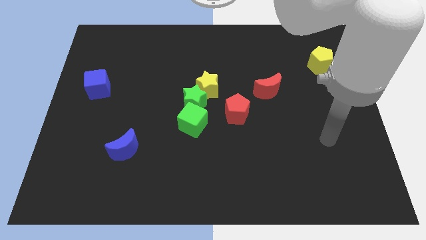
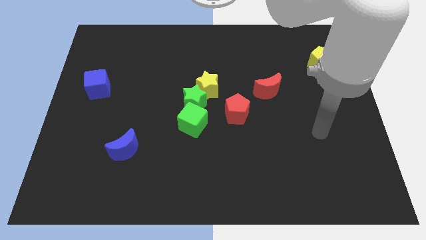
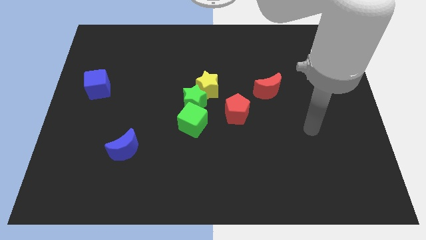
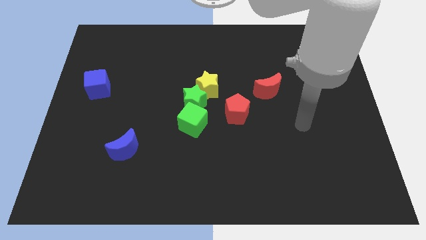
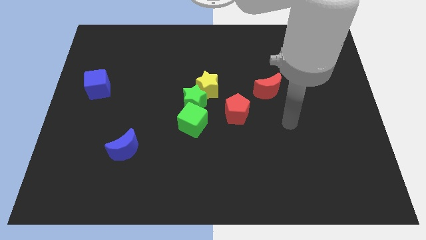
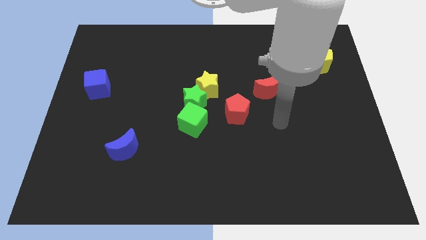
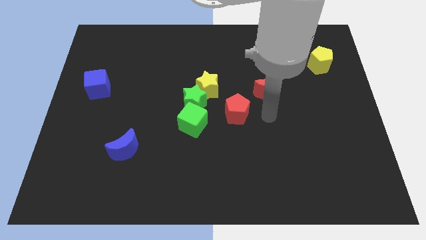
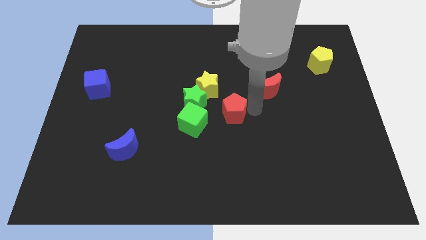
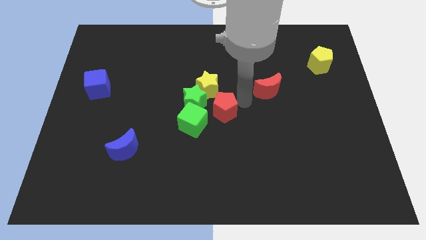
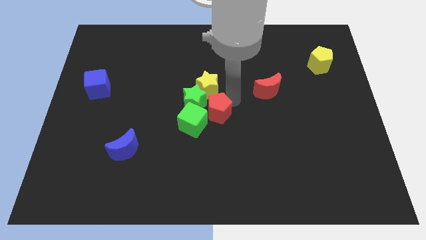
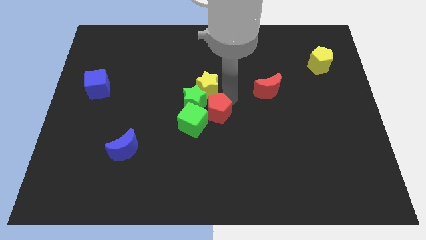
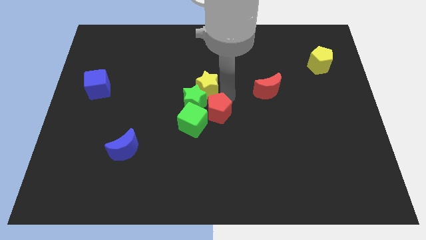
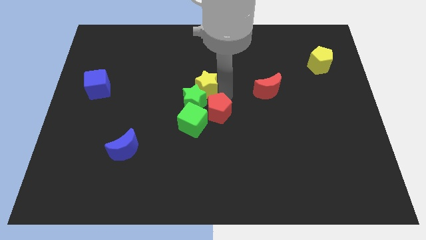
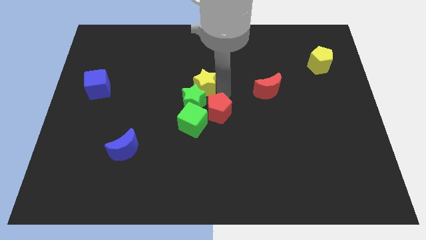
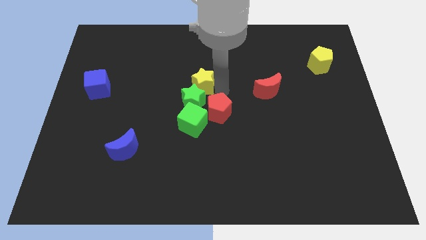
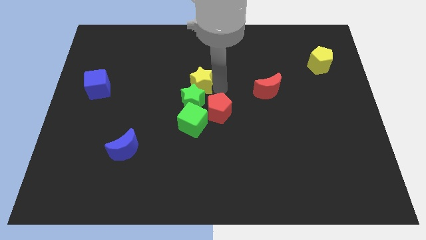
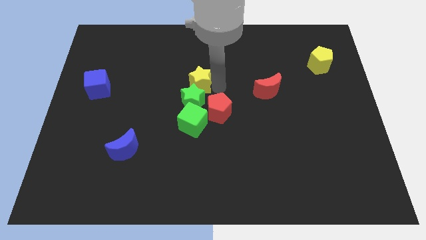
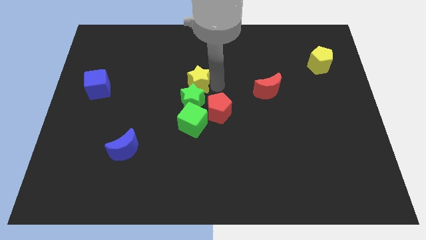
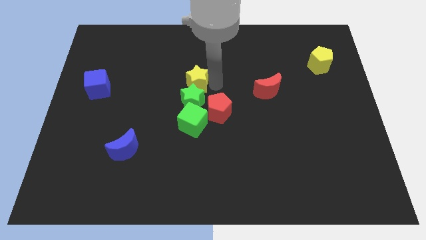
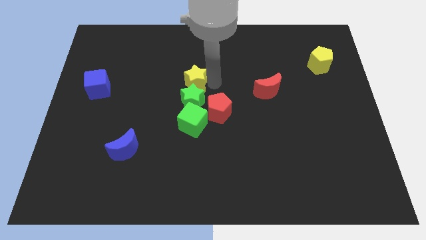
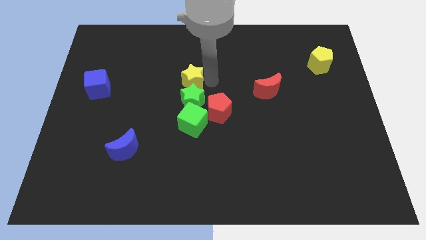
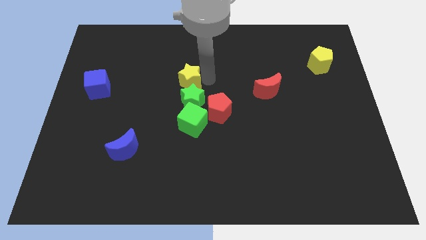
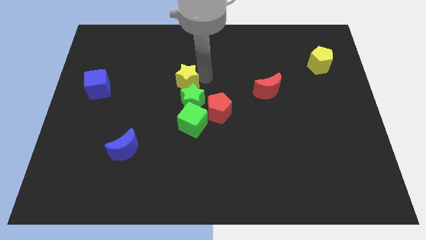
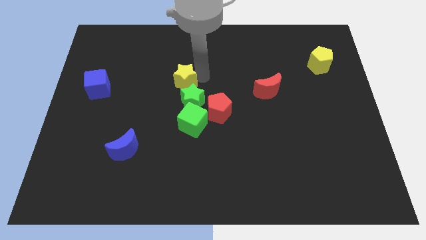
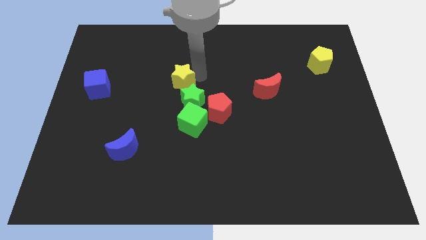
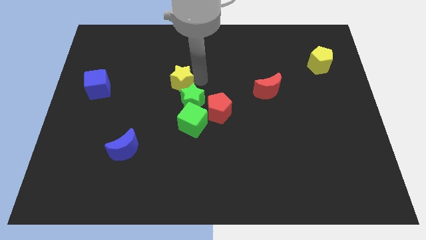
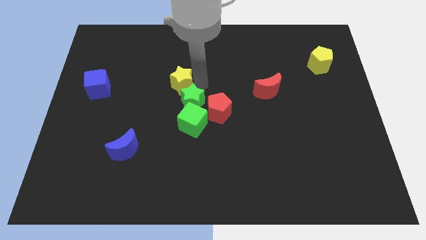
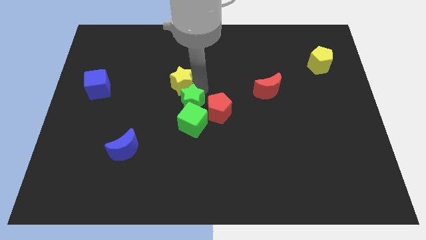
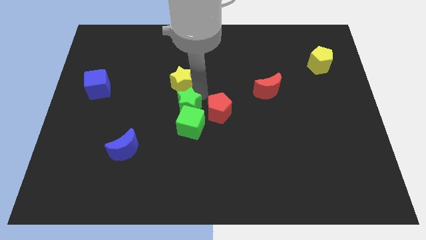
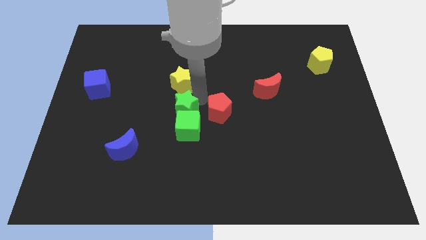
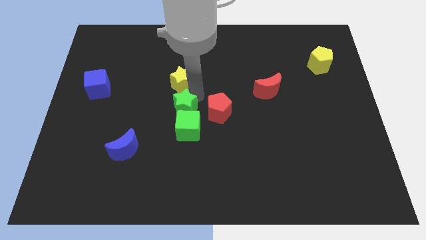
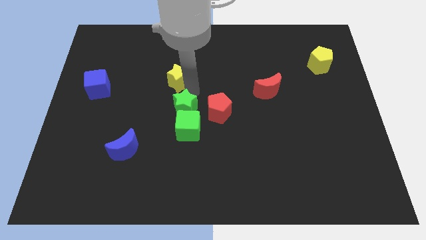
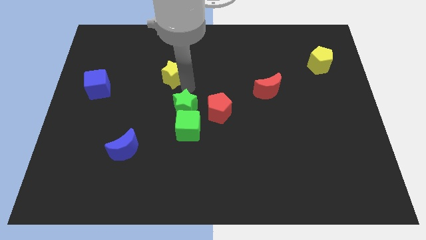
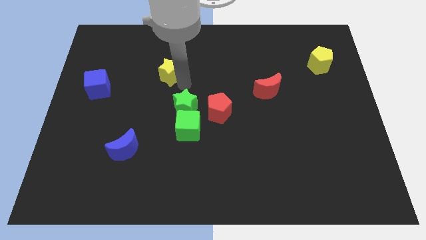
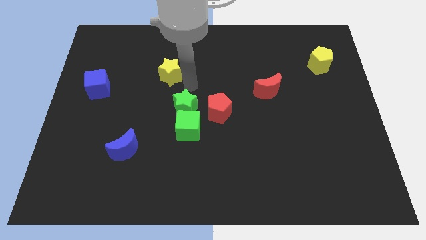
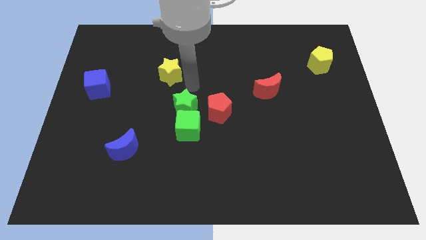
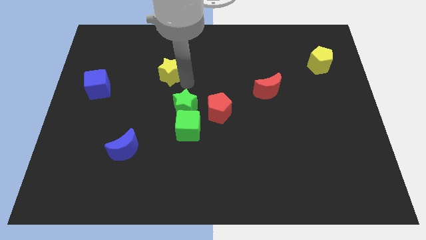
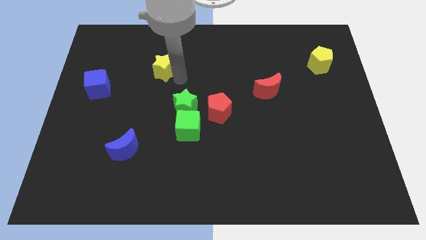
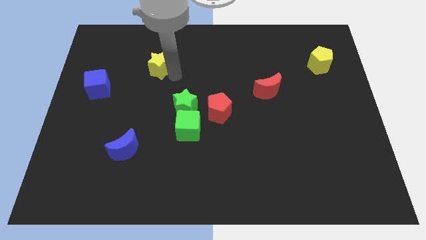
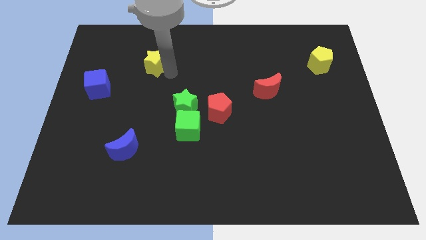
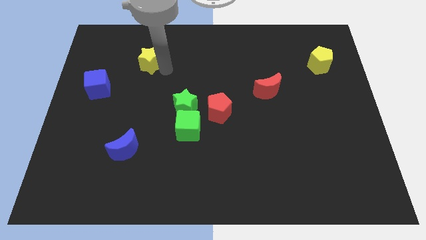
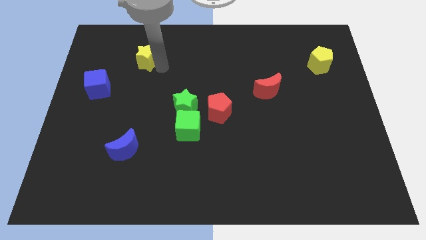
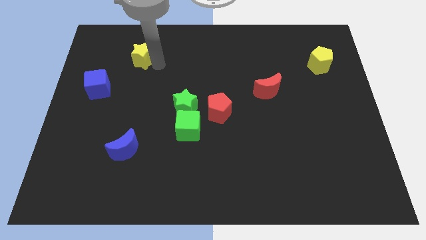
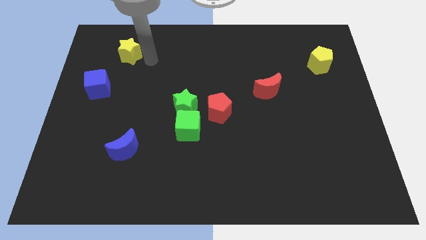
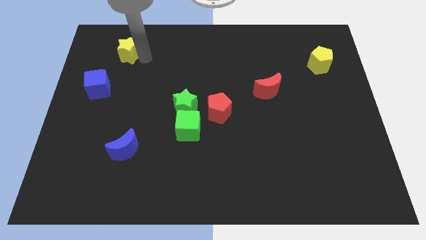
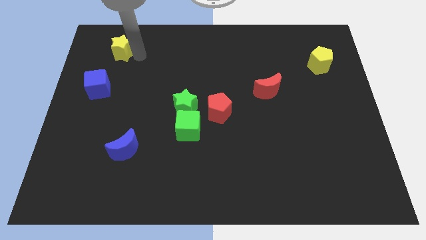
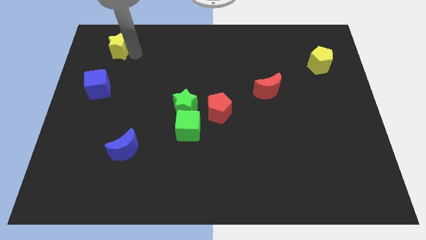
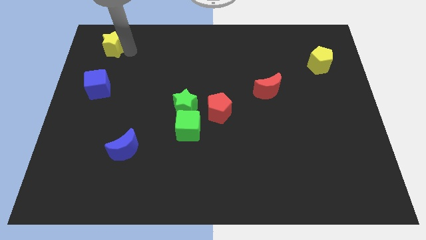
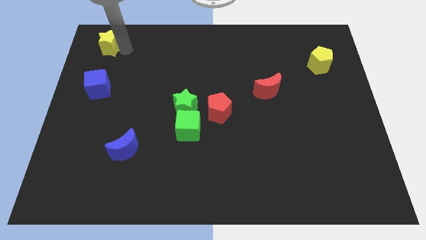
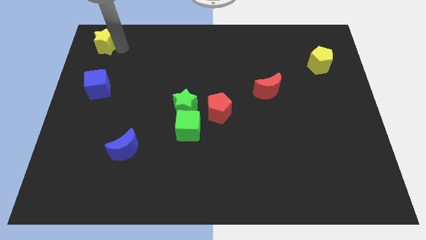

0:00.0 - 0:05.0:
put the yellow star to the top left corner

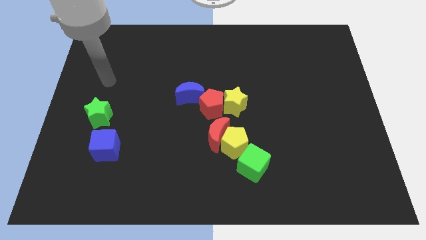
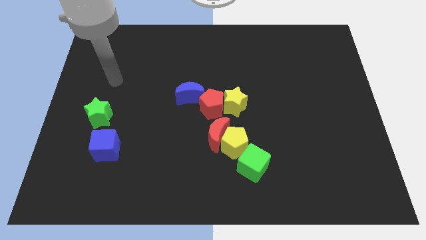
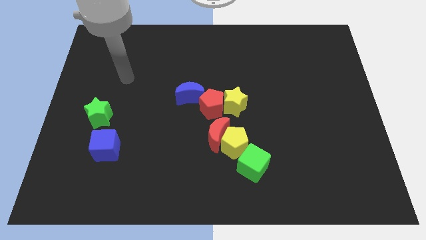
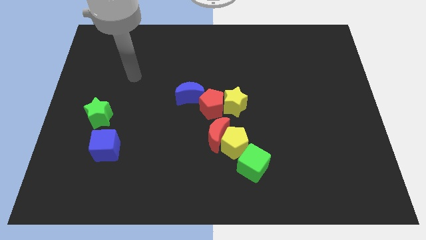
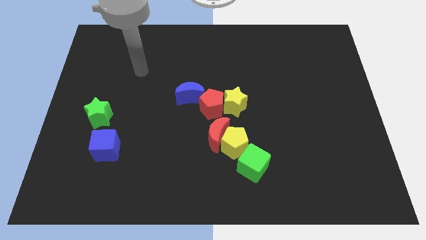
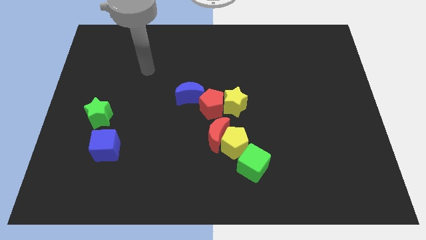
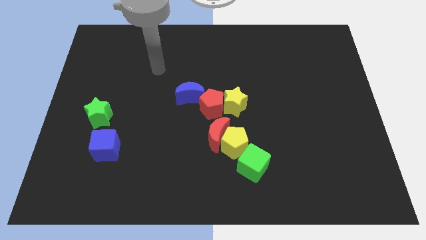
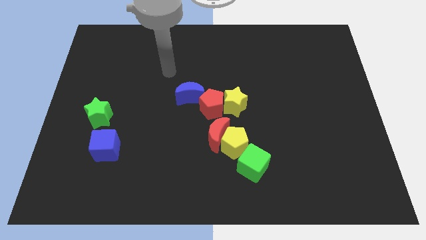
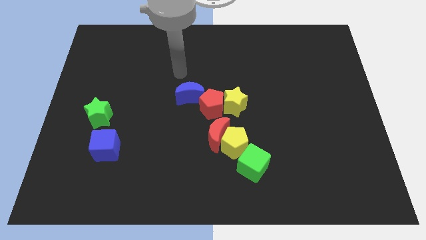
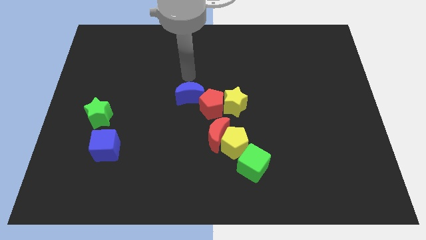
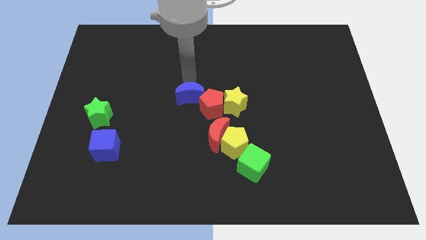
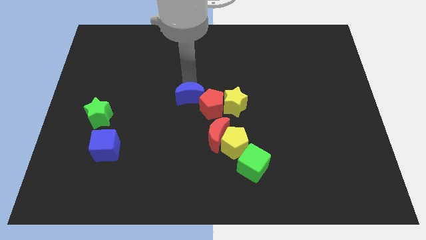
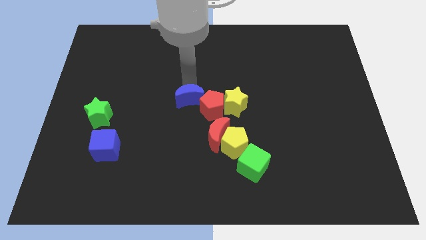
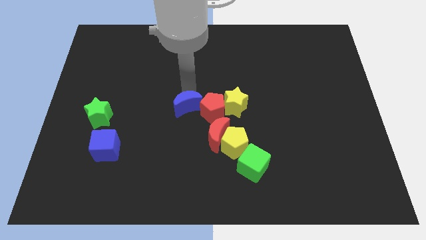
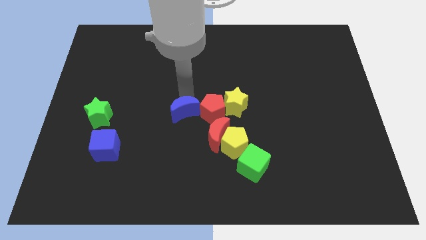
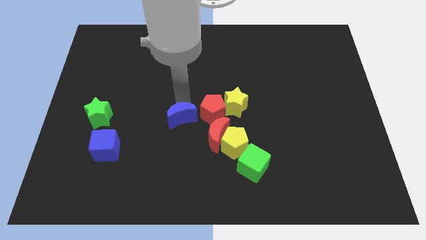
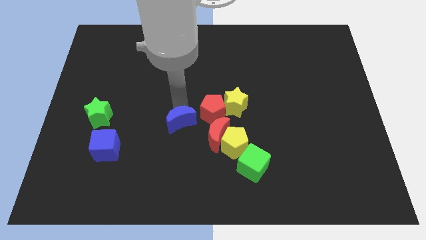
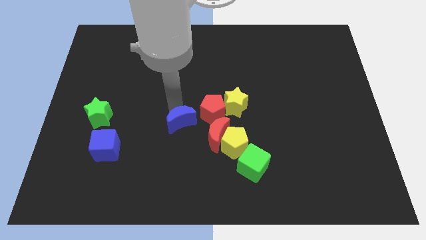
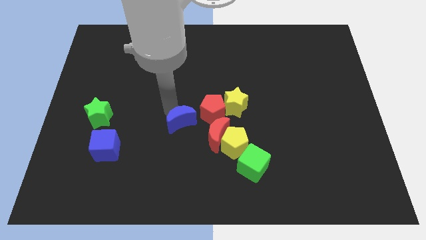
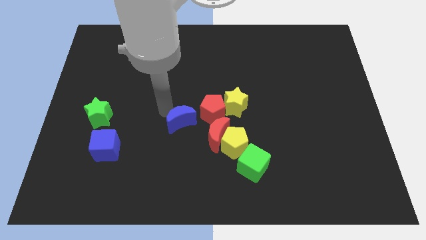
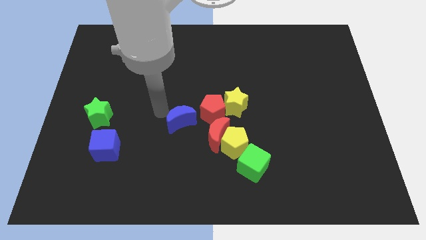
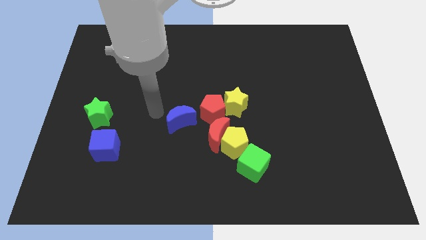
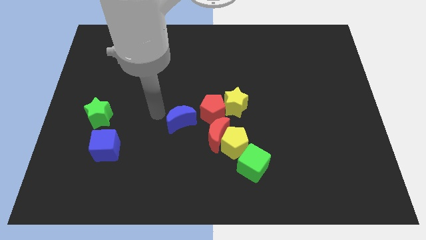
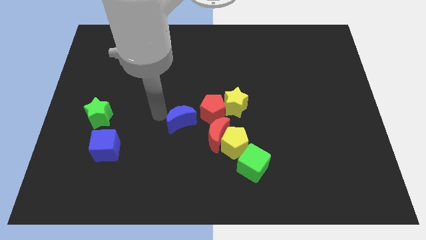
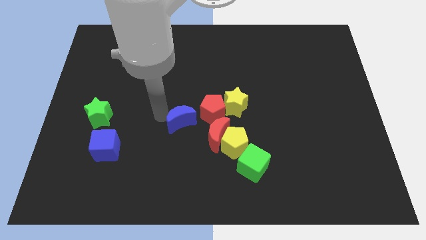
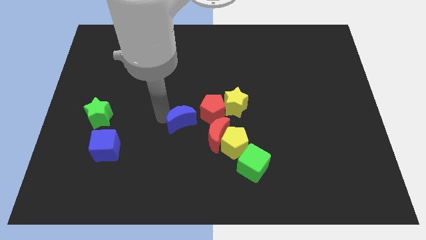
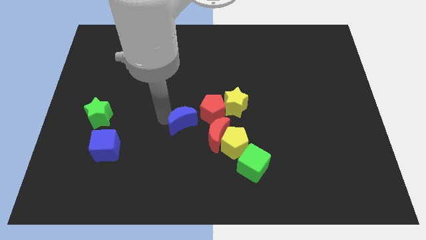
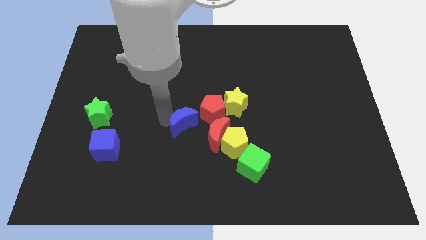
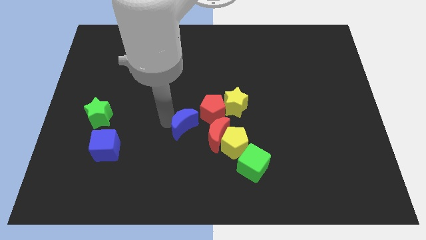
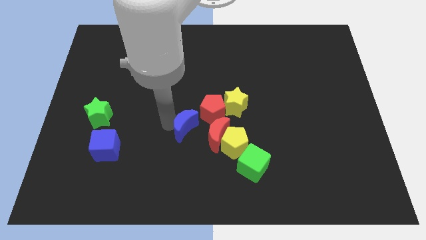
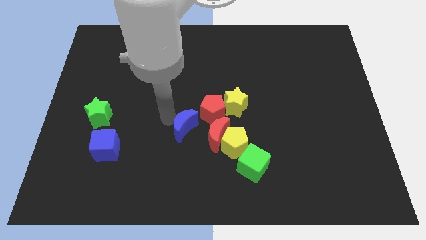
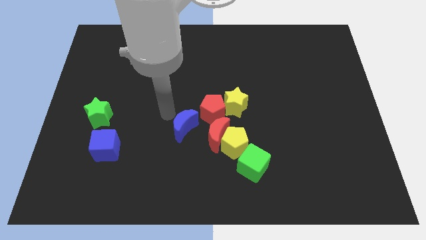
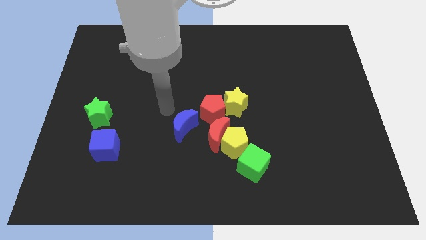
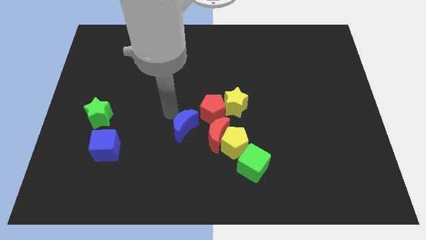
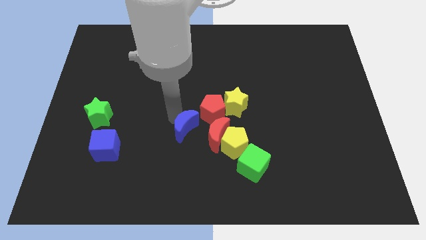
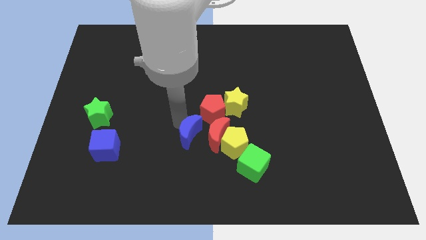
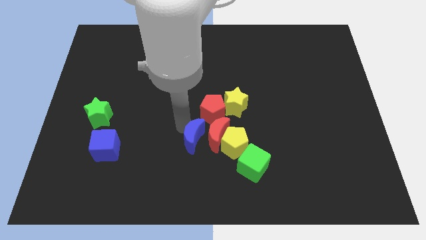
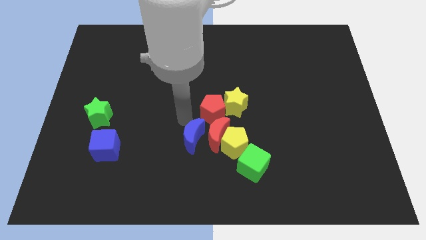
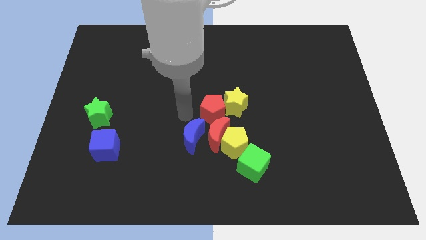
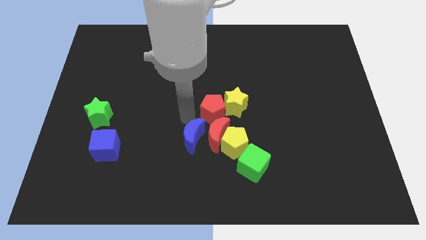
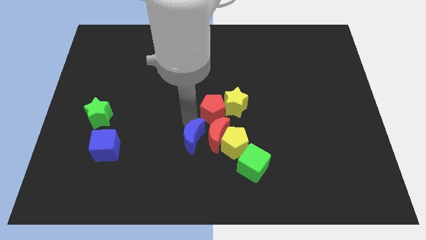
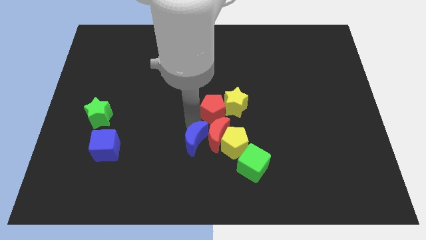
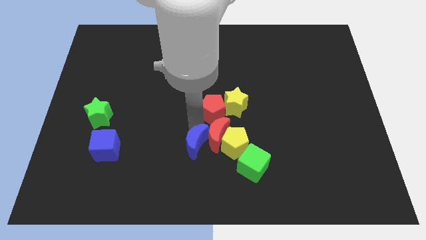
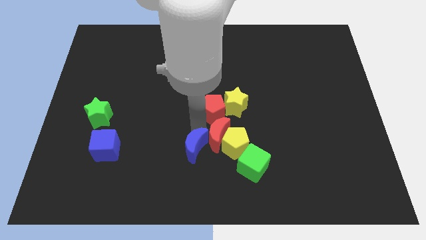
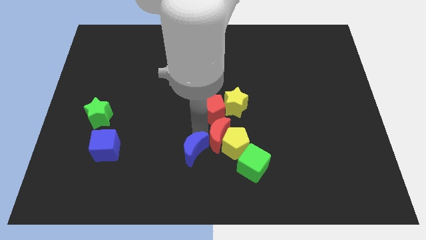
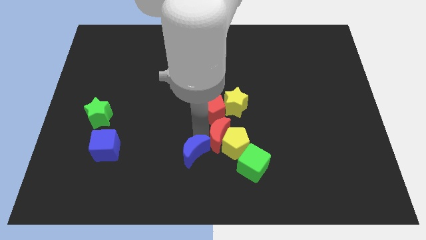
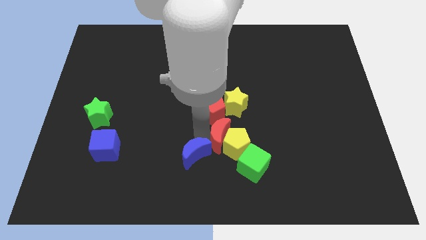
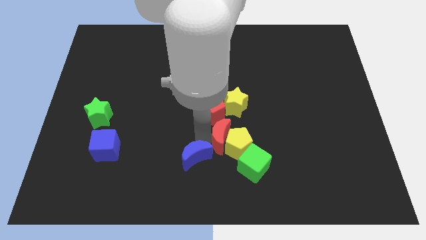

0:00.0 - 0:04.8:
slide the blue moon to the bottom side
